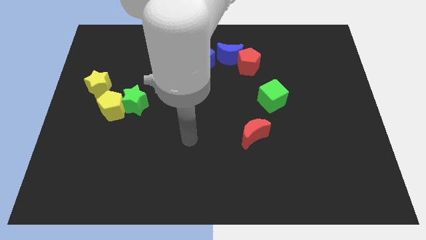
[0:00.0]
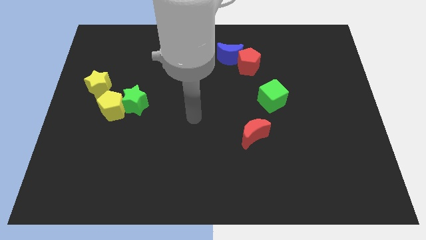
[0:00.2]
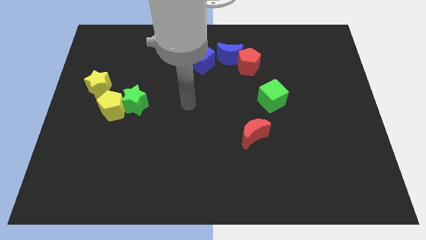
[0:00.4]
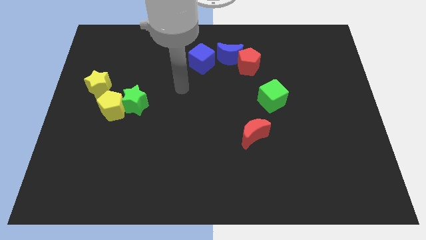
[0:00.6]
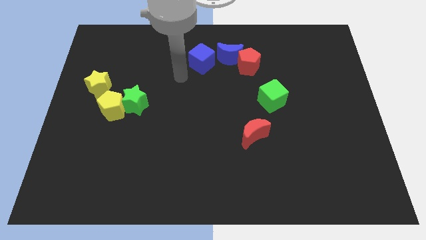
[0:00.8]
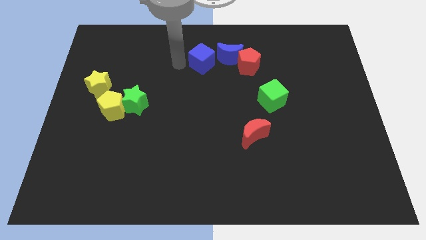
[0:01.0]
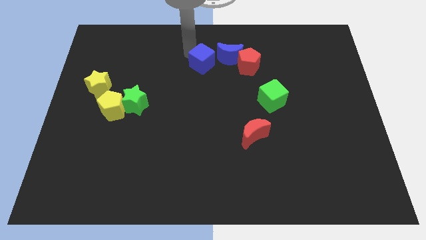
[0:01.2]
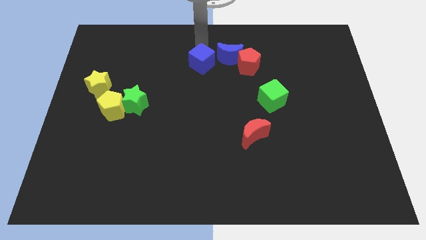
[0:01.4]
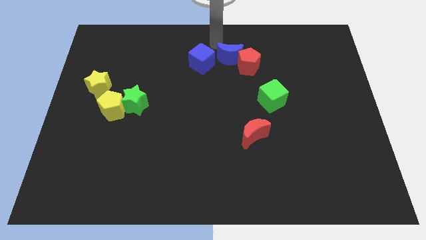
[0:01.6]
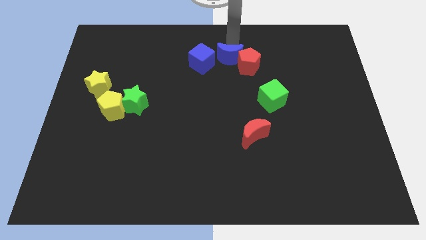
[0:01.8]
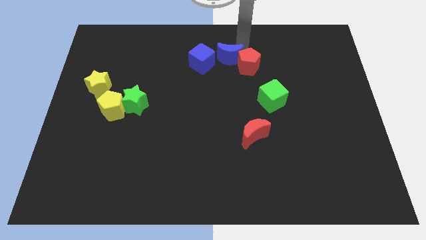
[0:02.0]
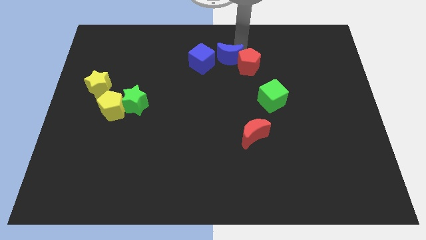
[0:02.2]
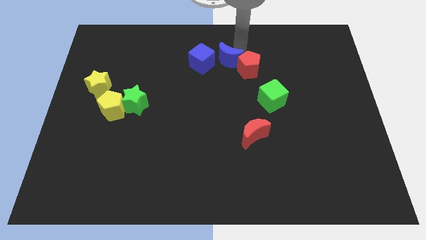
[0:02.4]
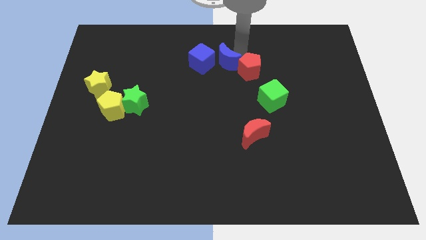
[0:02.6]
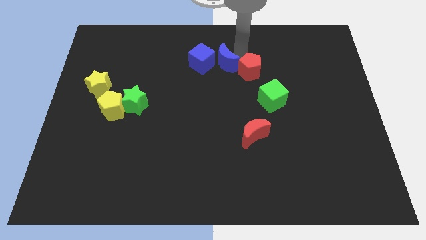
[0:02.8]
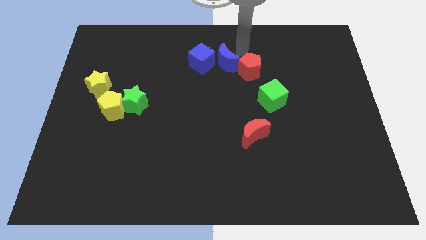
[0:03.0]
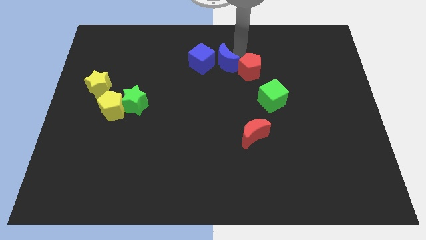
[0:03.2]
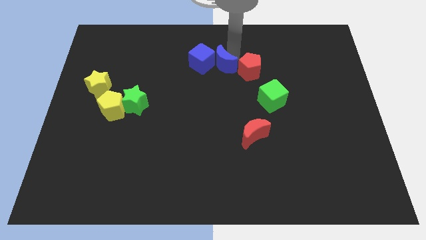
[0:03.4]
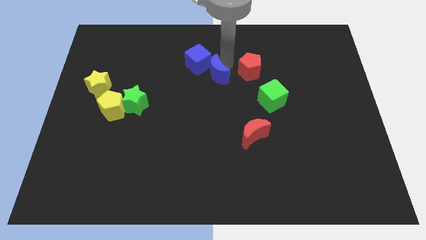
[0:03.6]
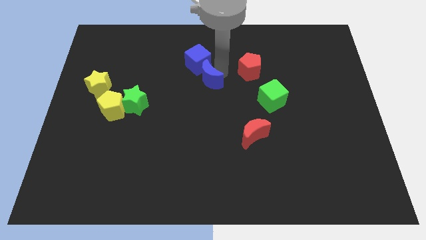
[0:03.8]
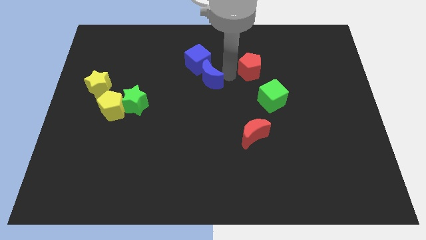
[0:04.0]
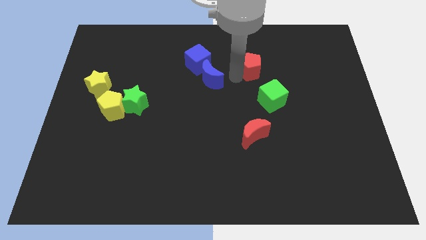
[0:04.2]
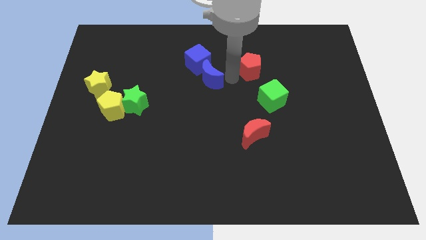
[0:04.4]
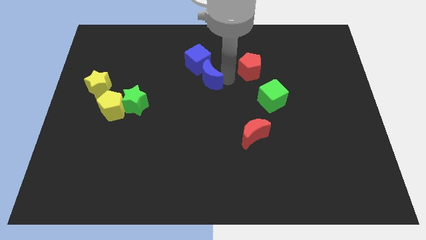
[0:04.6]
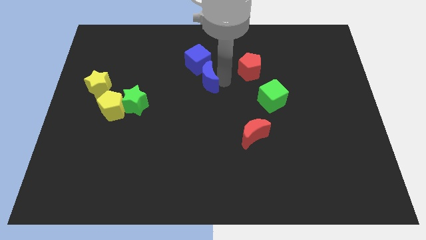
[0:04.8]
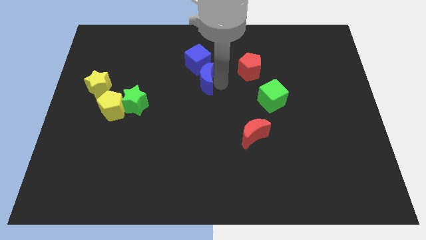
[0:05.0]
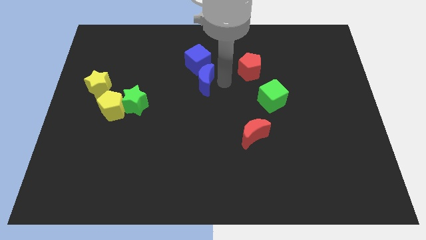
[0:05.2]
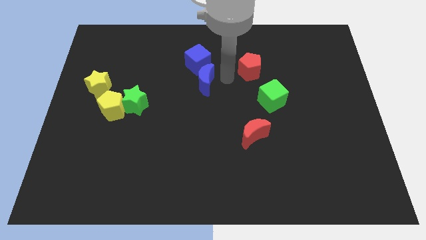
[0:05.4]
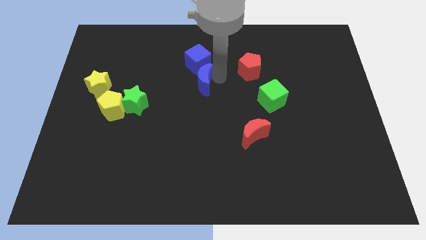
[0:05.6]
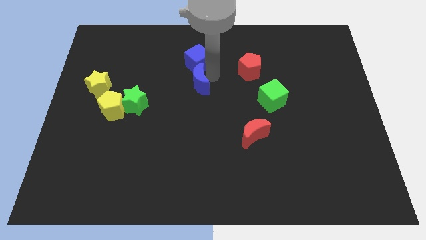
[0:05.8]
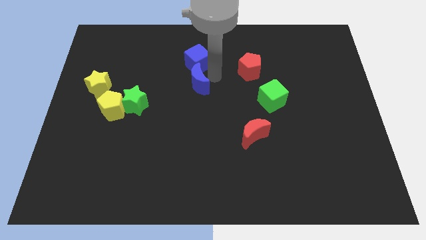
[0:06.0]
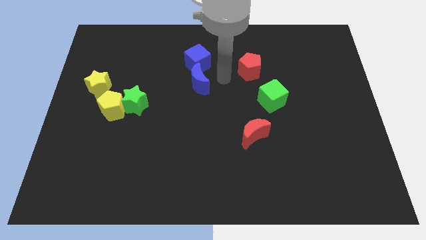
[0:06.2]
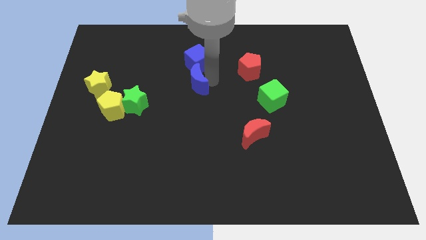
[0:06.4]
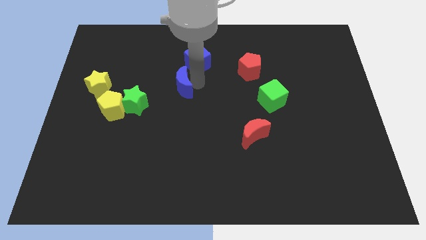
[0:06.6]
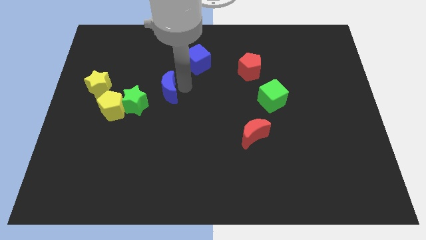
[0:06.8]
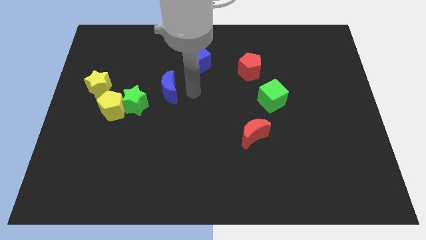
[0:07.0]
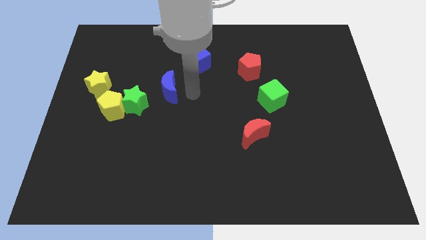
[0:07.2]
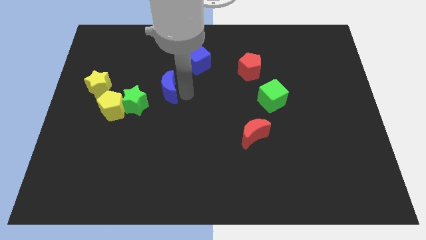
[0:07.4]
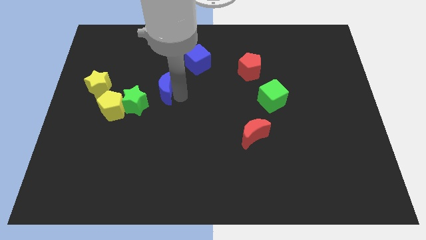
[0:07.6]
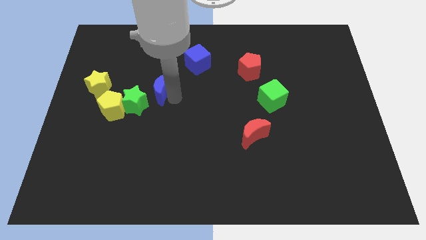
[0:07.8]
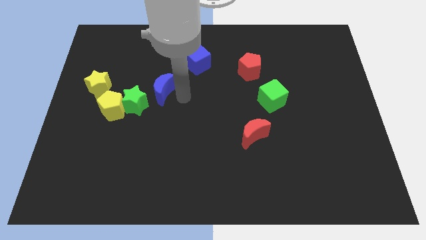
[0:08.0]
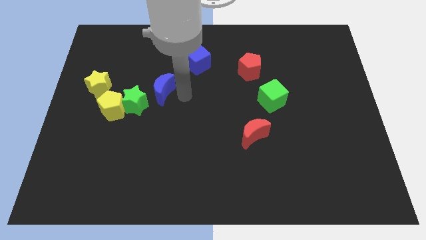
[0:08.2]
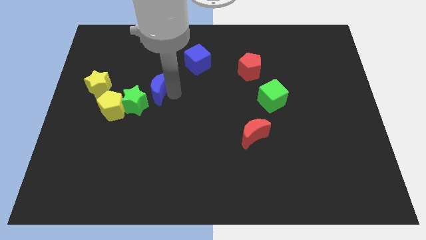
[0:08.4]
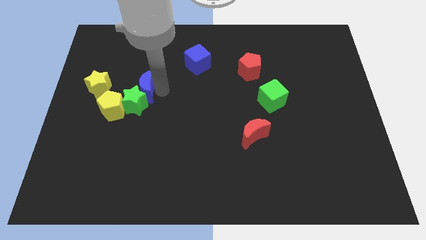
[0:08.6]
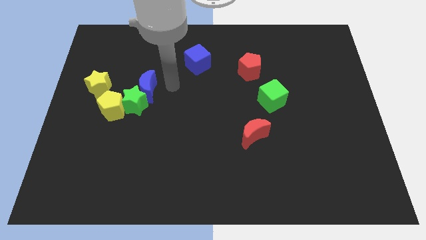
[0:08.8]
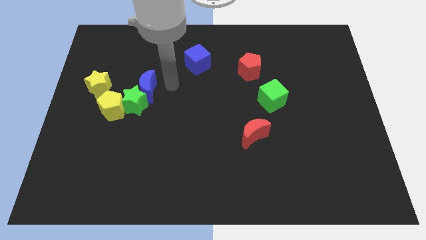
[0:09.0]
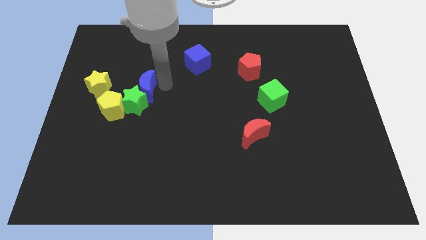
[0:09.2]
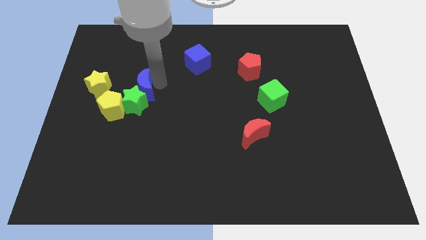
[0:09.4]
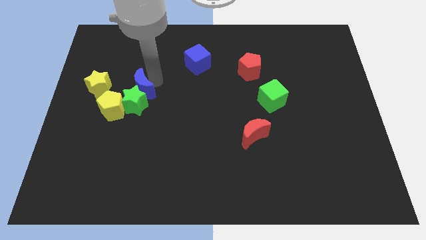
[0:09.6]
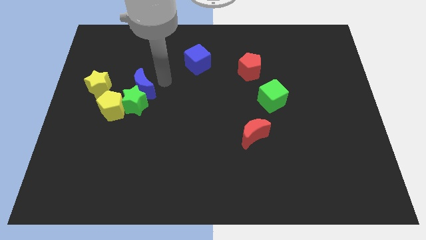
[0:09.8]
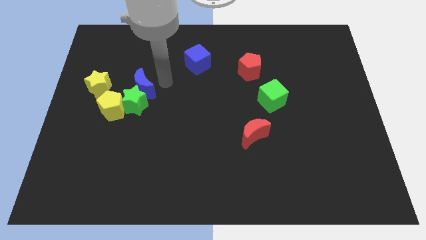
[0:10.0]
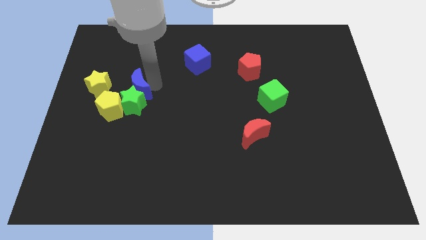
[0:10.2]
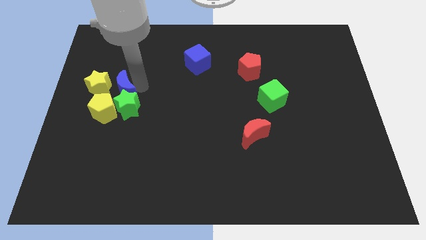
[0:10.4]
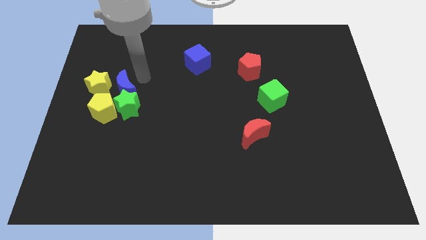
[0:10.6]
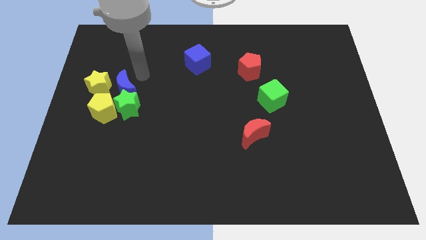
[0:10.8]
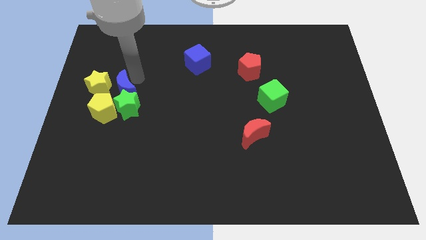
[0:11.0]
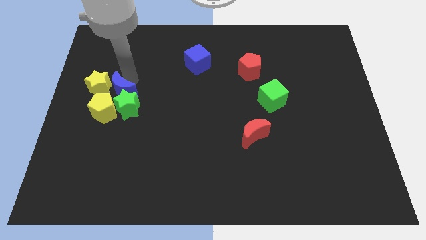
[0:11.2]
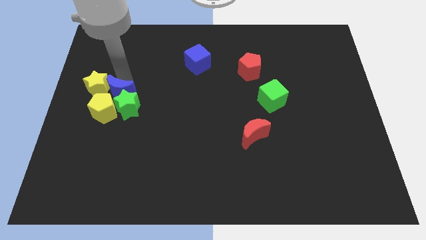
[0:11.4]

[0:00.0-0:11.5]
put the blue moon next to the yellow pentagon

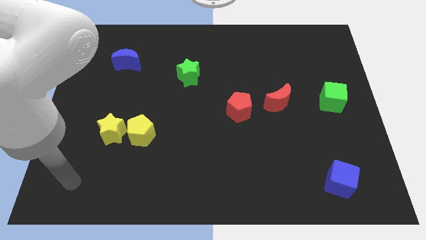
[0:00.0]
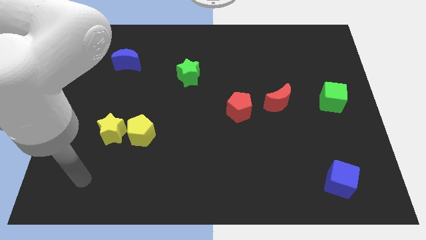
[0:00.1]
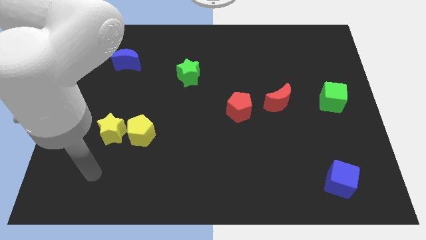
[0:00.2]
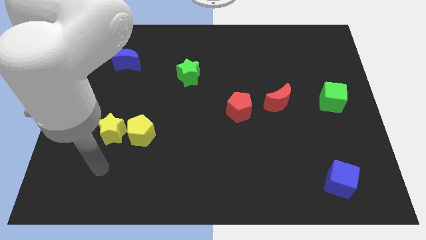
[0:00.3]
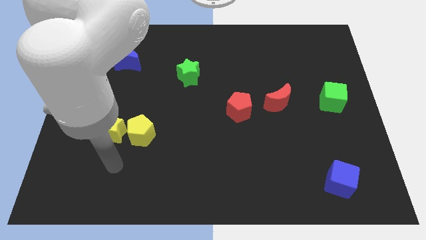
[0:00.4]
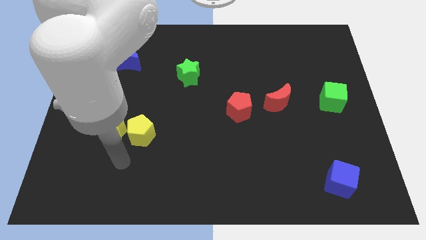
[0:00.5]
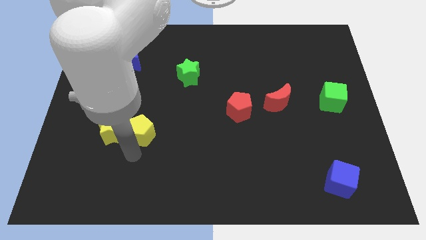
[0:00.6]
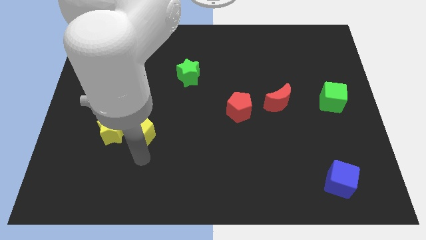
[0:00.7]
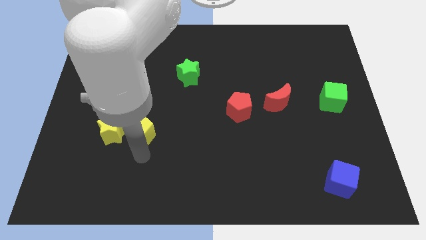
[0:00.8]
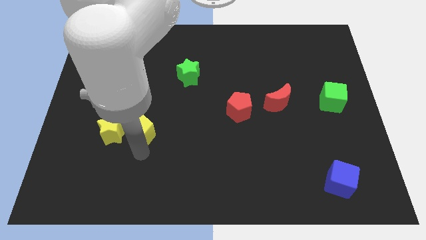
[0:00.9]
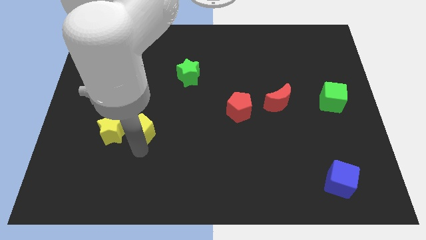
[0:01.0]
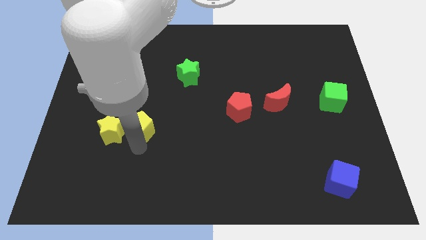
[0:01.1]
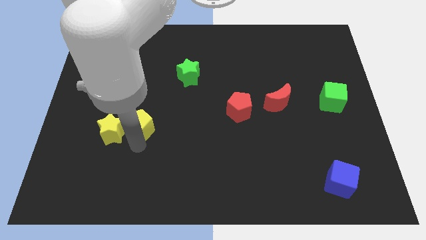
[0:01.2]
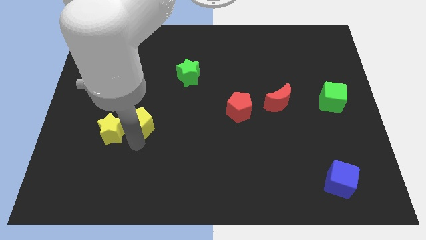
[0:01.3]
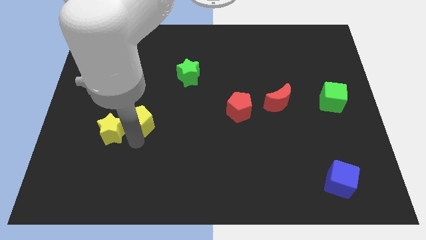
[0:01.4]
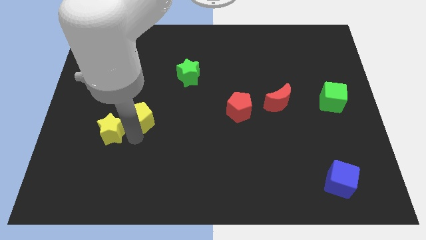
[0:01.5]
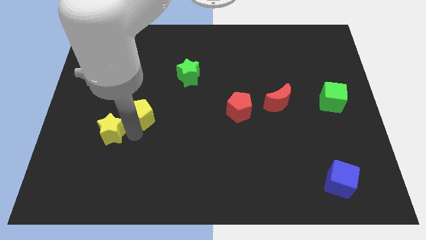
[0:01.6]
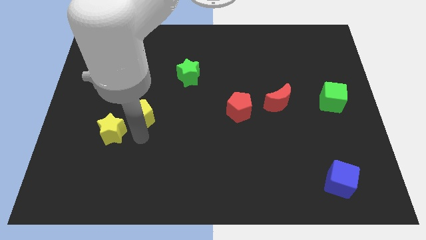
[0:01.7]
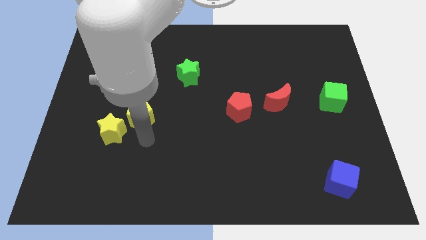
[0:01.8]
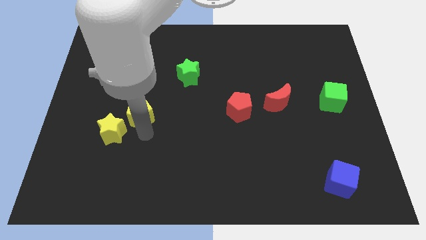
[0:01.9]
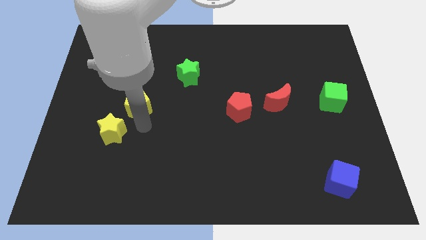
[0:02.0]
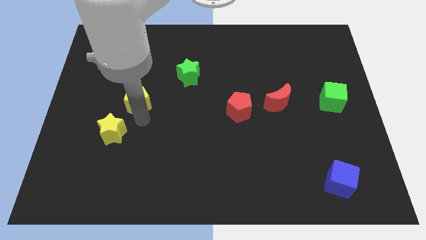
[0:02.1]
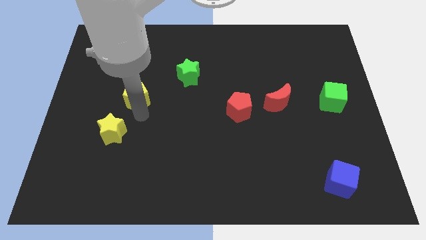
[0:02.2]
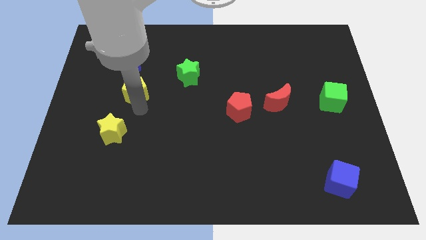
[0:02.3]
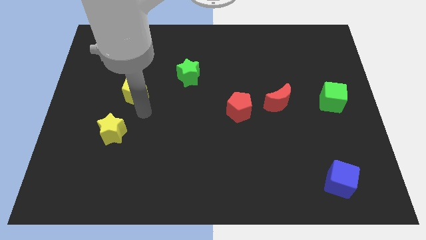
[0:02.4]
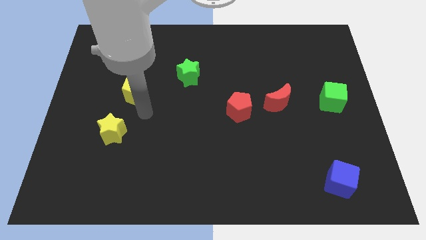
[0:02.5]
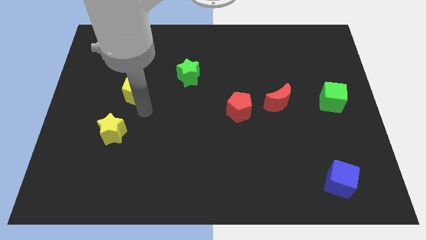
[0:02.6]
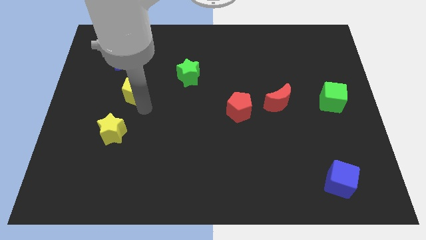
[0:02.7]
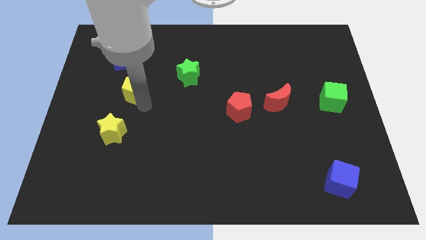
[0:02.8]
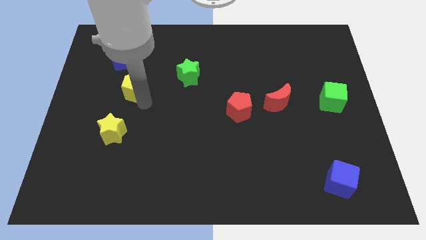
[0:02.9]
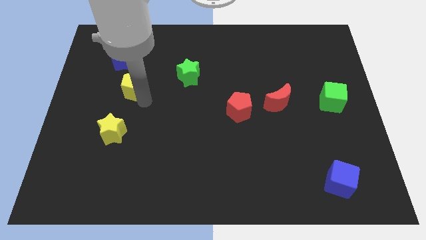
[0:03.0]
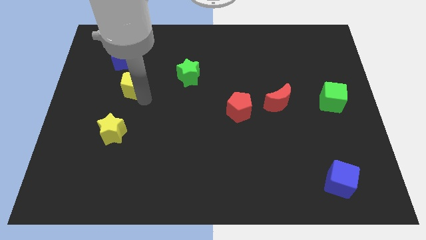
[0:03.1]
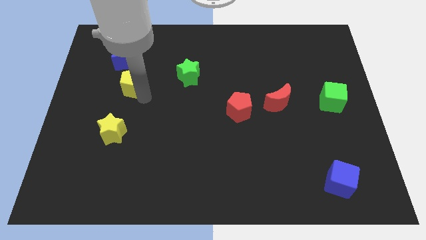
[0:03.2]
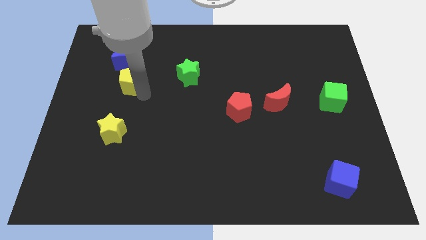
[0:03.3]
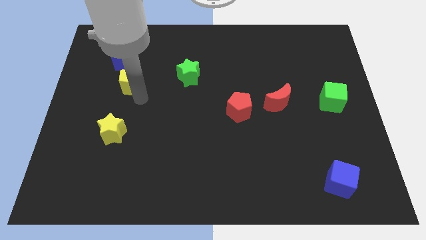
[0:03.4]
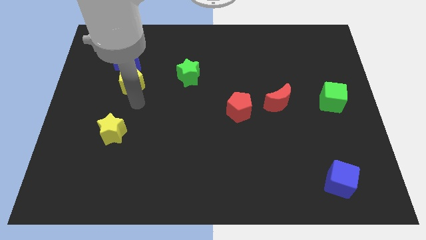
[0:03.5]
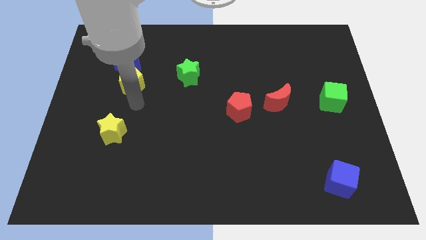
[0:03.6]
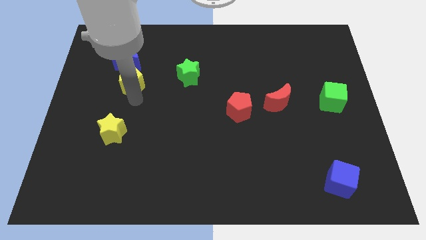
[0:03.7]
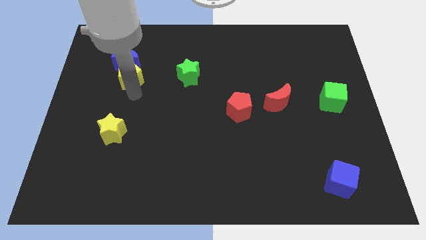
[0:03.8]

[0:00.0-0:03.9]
slide the yellow pentagon close to the blue moon
